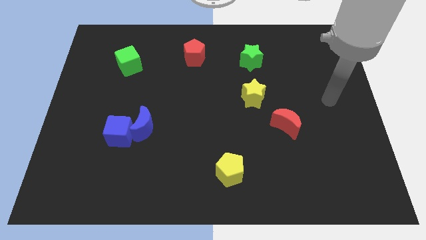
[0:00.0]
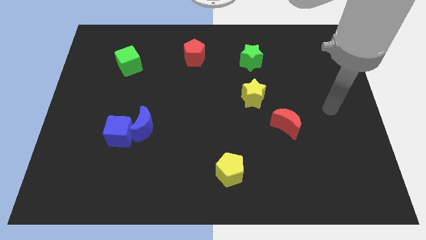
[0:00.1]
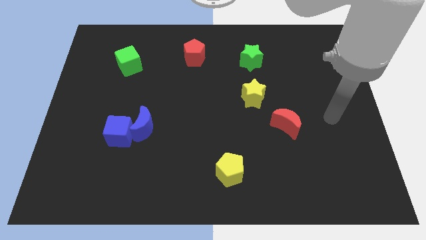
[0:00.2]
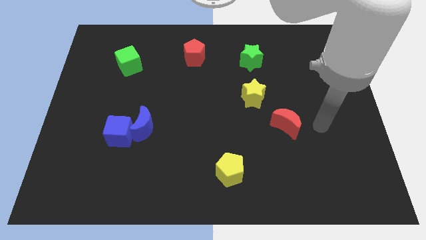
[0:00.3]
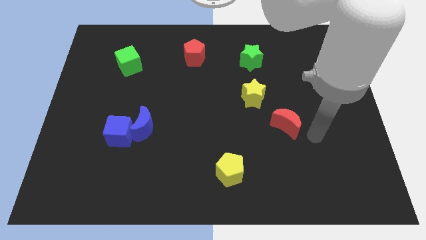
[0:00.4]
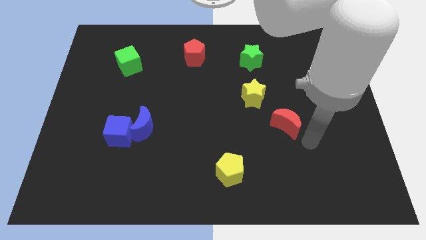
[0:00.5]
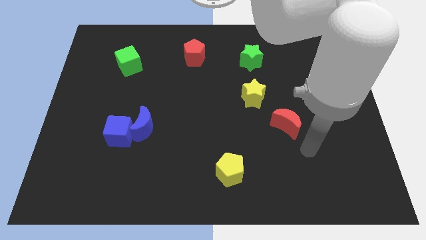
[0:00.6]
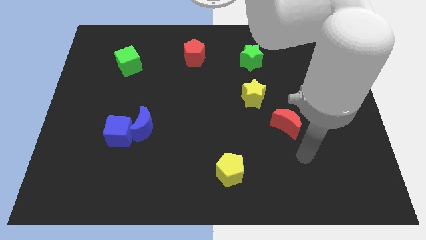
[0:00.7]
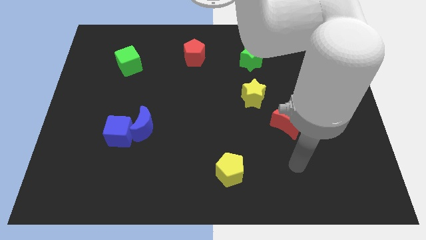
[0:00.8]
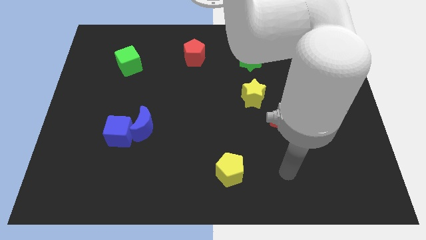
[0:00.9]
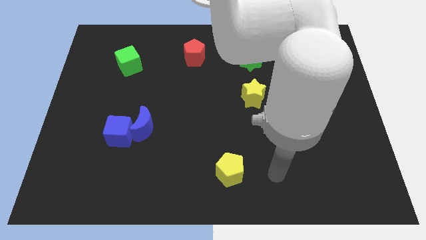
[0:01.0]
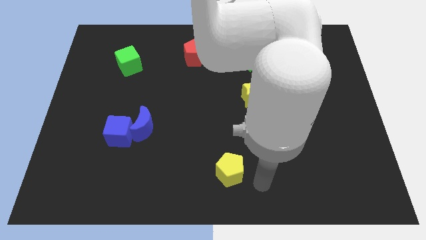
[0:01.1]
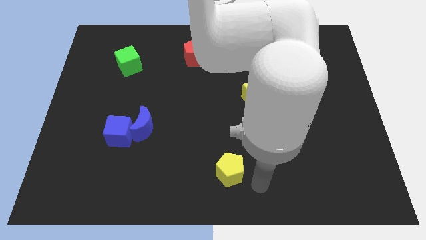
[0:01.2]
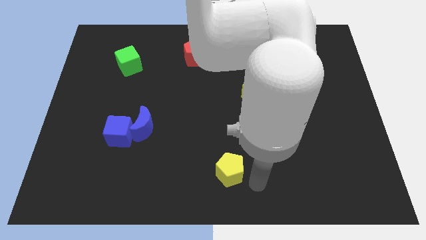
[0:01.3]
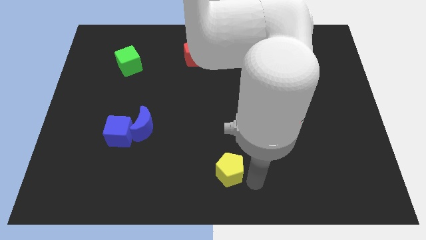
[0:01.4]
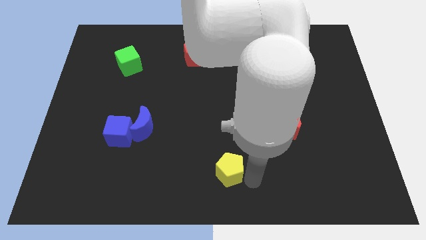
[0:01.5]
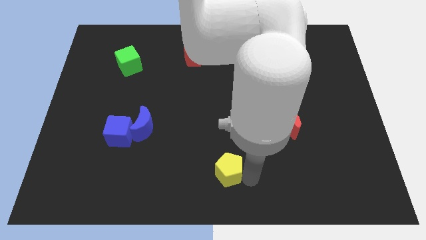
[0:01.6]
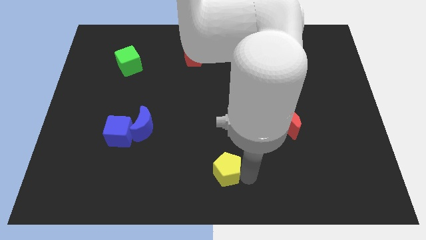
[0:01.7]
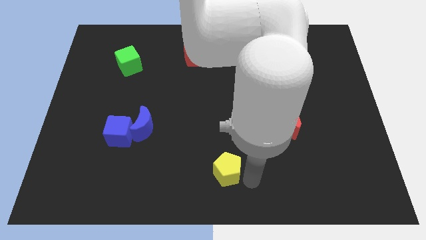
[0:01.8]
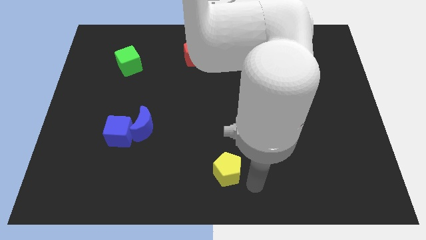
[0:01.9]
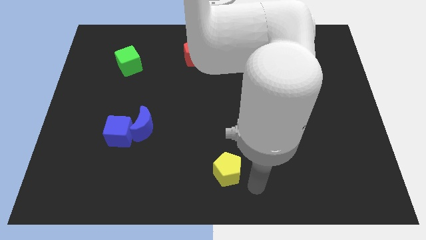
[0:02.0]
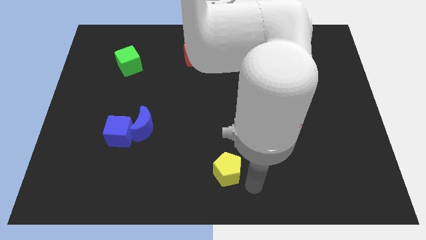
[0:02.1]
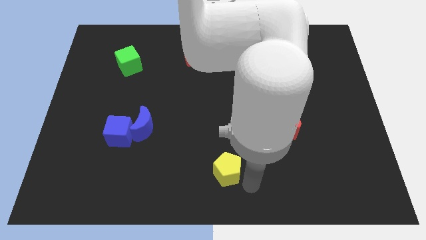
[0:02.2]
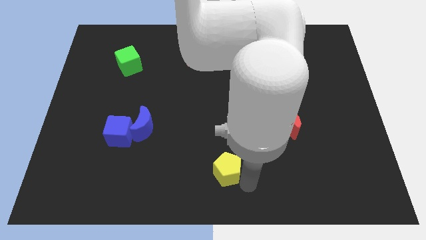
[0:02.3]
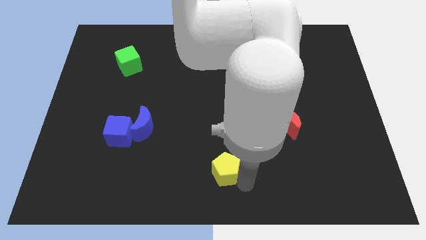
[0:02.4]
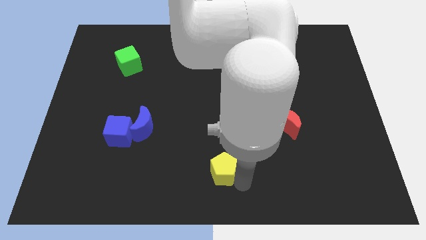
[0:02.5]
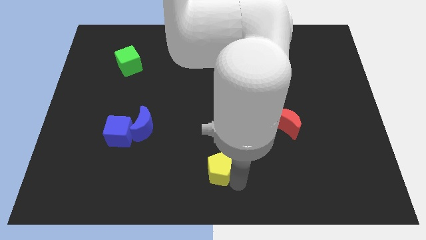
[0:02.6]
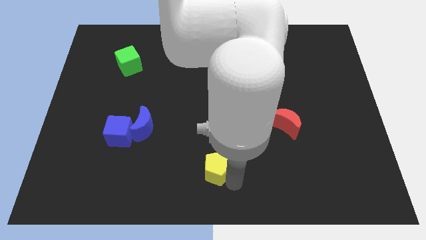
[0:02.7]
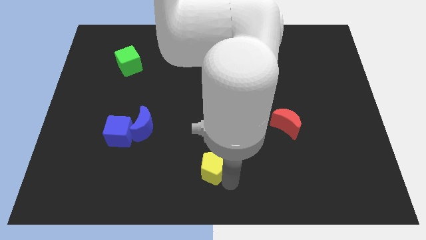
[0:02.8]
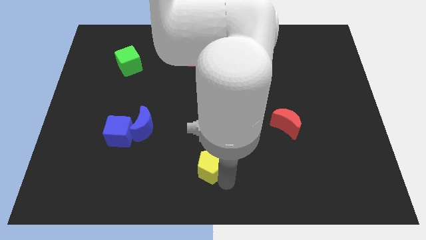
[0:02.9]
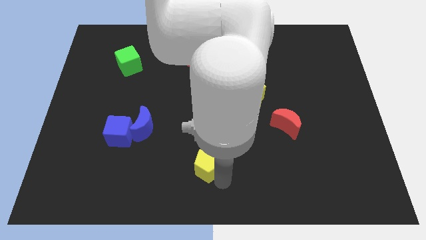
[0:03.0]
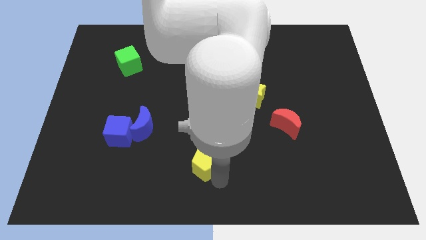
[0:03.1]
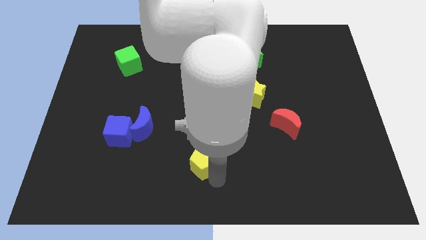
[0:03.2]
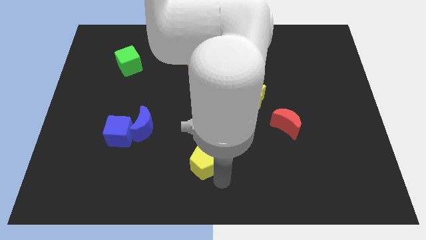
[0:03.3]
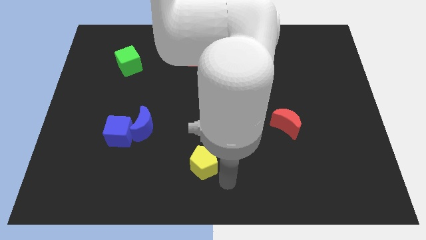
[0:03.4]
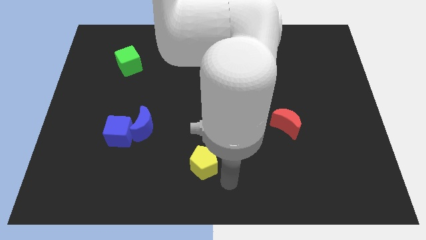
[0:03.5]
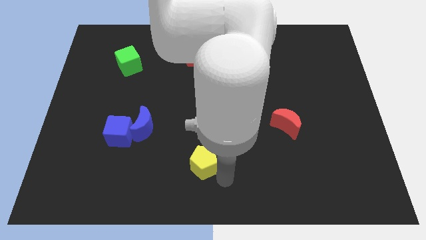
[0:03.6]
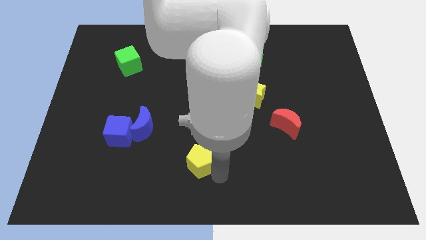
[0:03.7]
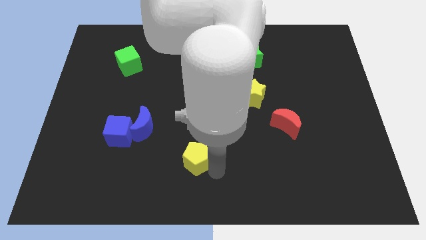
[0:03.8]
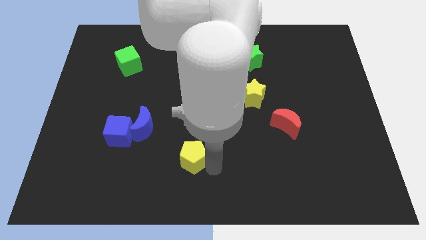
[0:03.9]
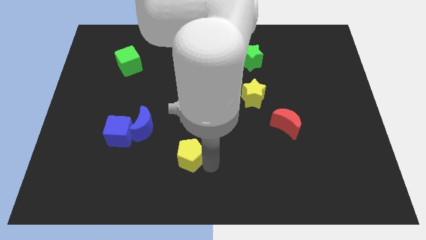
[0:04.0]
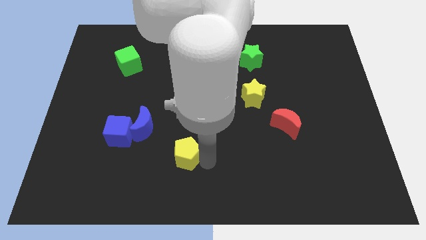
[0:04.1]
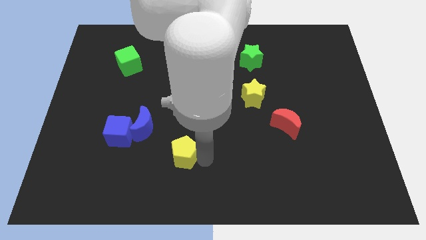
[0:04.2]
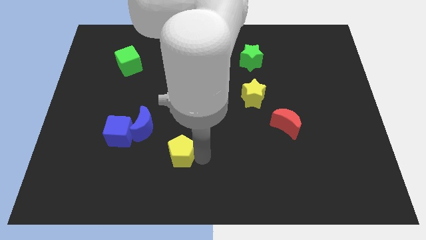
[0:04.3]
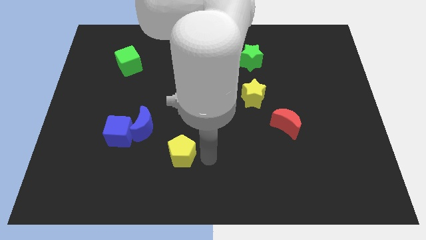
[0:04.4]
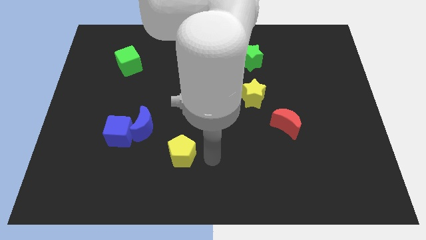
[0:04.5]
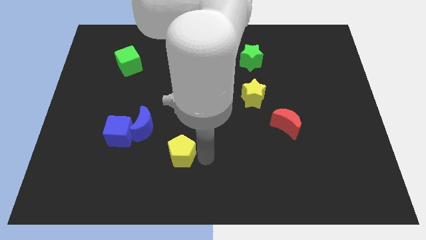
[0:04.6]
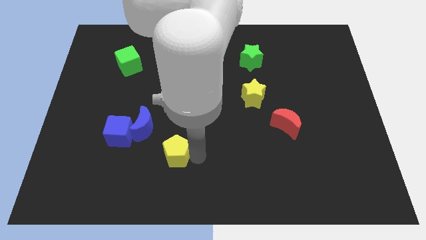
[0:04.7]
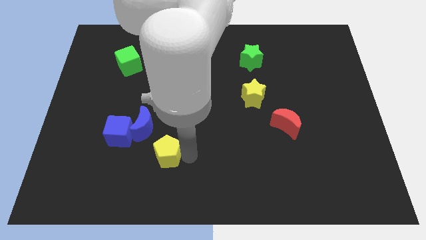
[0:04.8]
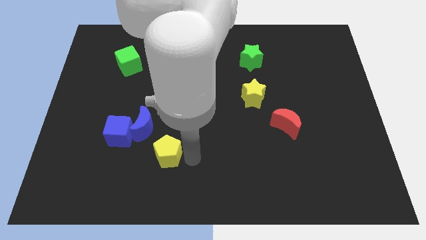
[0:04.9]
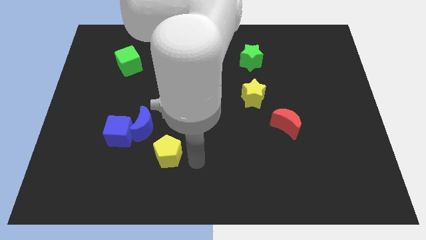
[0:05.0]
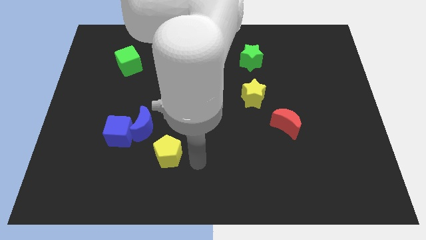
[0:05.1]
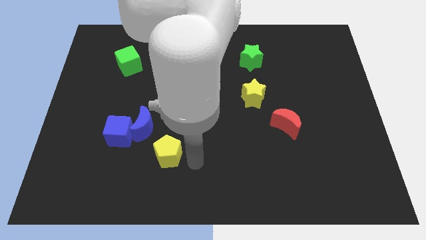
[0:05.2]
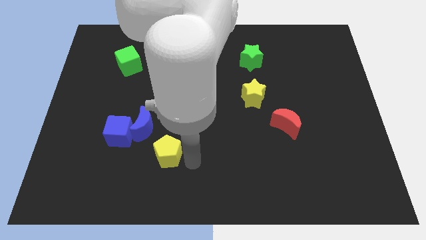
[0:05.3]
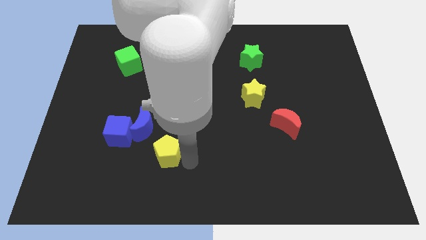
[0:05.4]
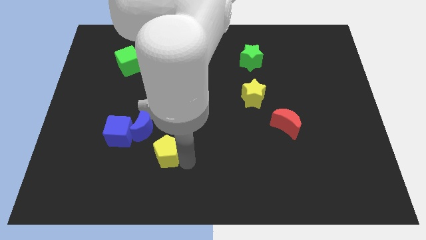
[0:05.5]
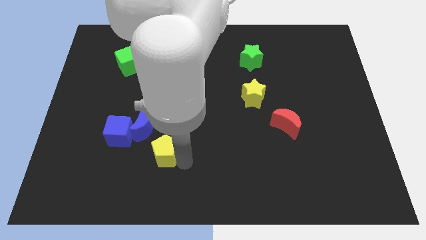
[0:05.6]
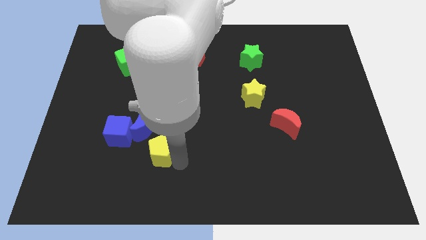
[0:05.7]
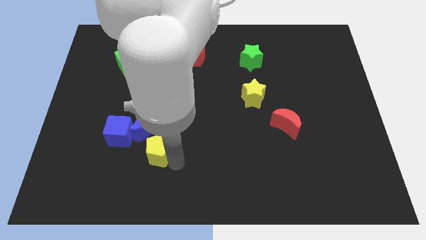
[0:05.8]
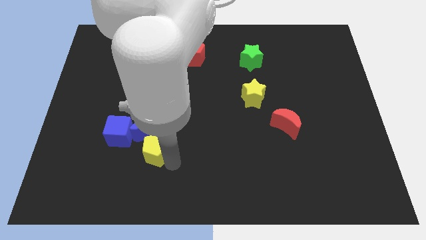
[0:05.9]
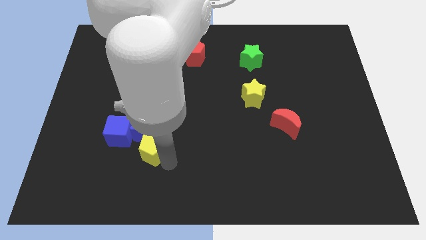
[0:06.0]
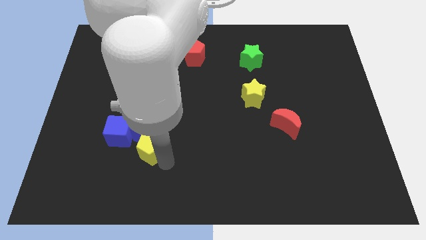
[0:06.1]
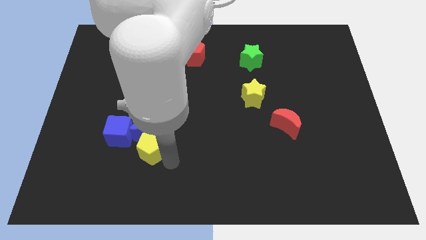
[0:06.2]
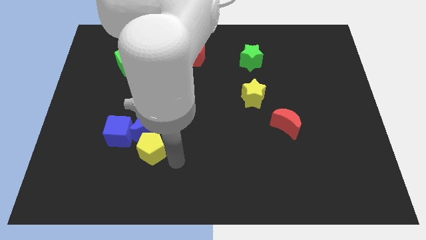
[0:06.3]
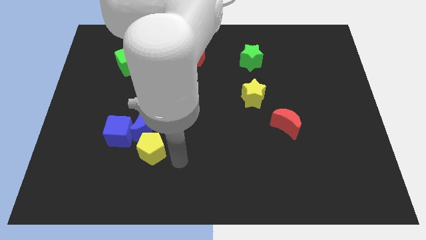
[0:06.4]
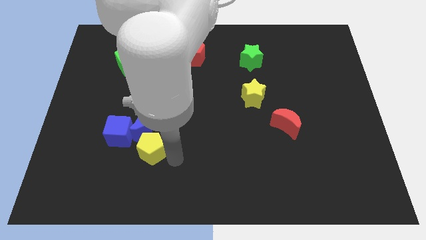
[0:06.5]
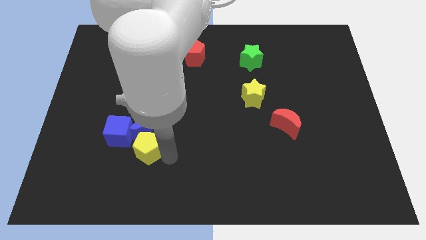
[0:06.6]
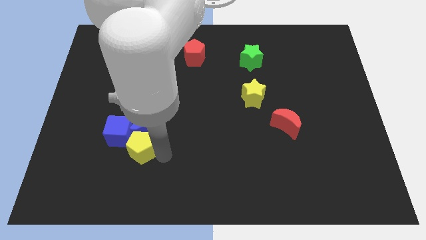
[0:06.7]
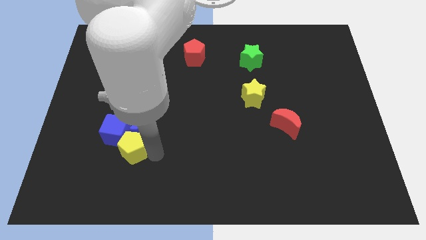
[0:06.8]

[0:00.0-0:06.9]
move the yellow pentagon towards the blue cube

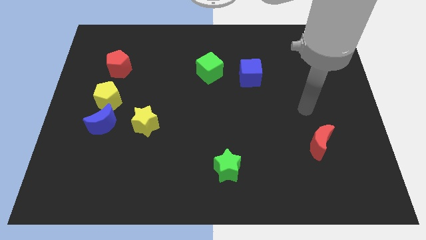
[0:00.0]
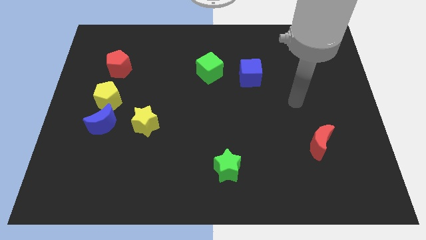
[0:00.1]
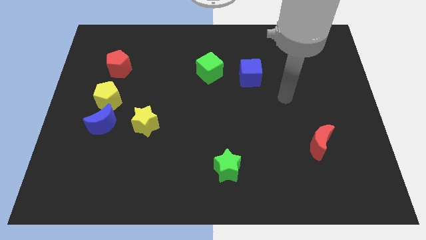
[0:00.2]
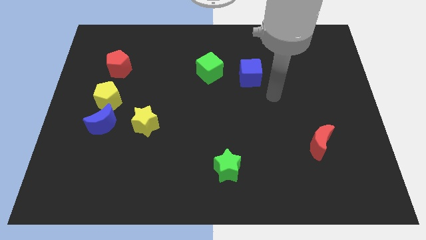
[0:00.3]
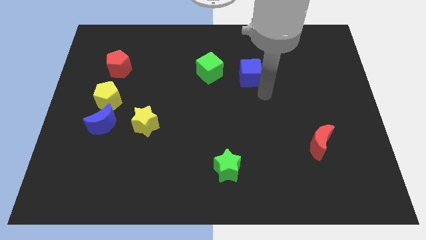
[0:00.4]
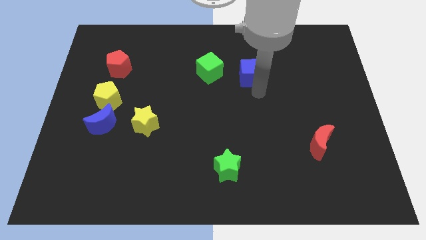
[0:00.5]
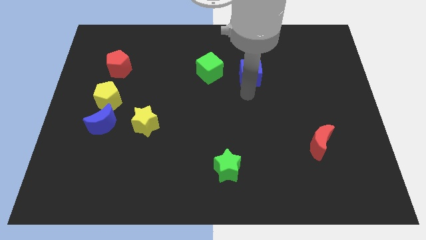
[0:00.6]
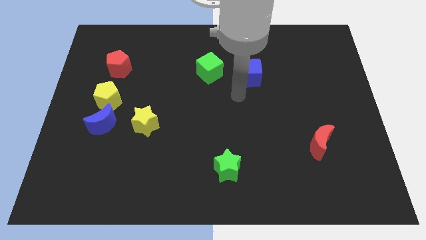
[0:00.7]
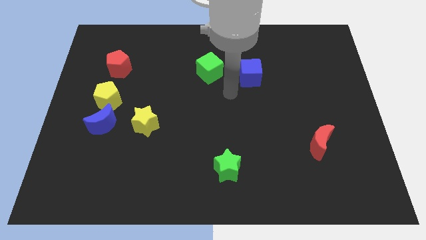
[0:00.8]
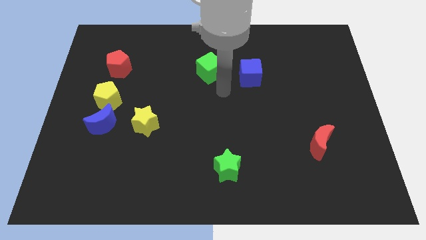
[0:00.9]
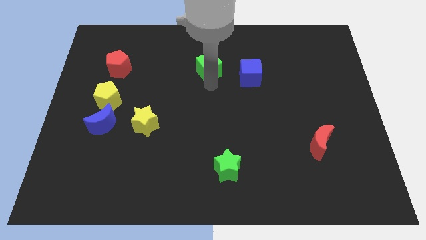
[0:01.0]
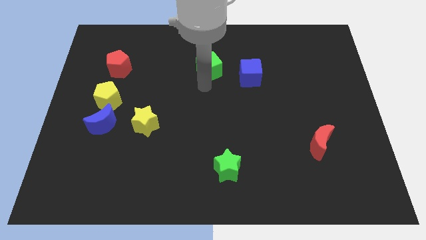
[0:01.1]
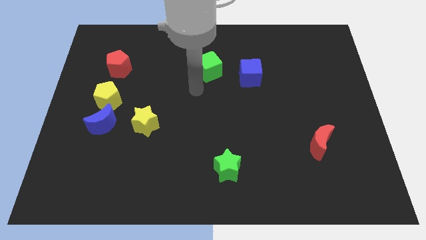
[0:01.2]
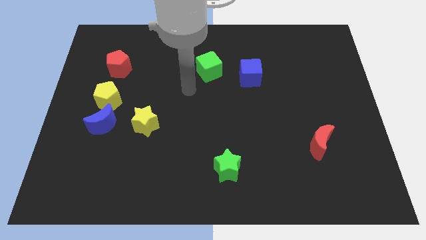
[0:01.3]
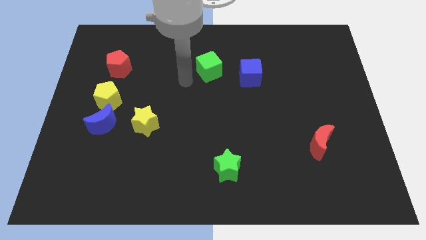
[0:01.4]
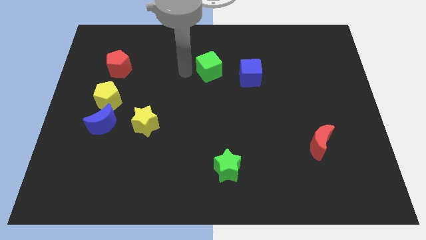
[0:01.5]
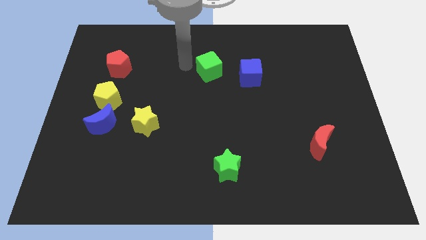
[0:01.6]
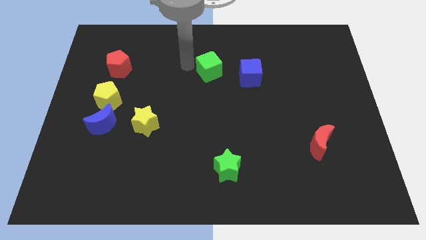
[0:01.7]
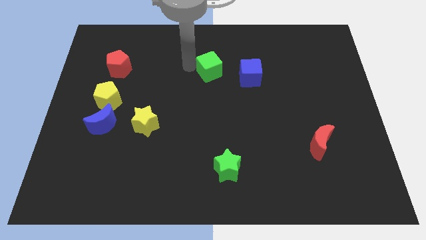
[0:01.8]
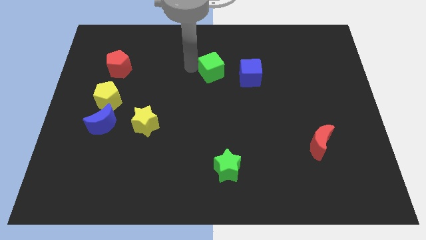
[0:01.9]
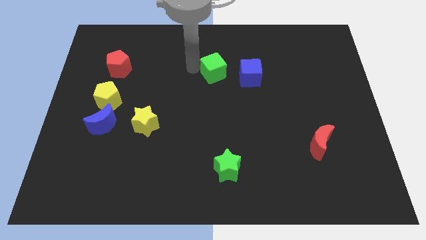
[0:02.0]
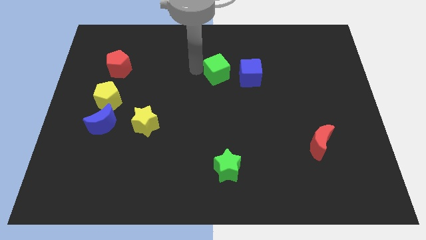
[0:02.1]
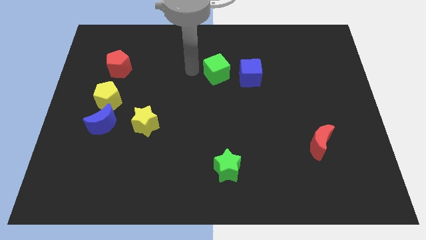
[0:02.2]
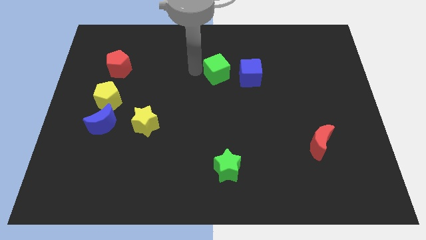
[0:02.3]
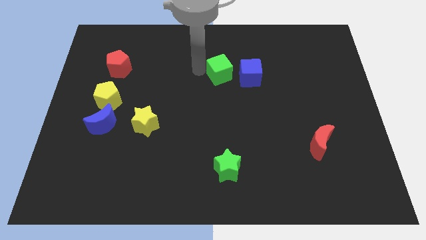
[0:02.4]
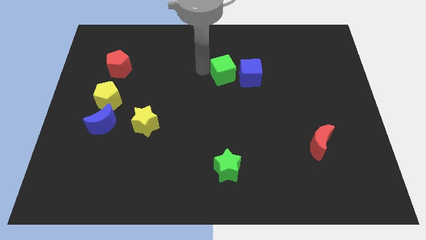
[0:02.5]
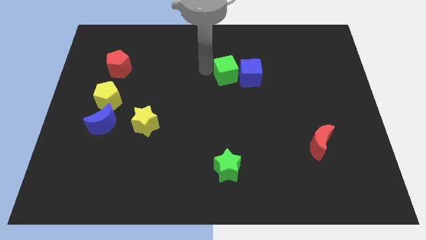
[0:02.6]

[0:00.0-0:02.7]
put the green cube close to the blue cube
